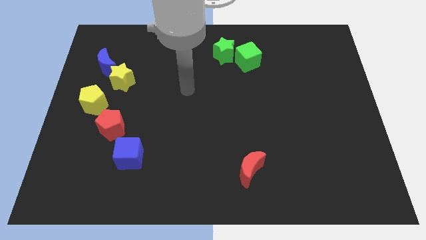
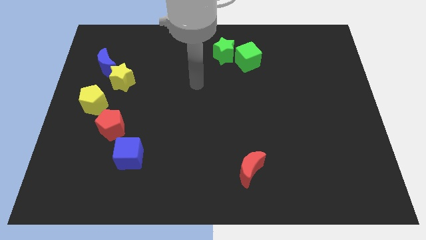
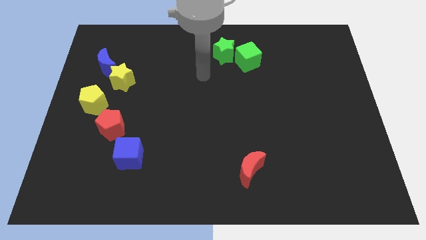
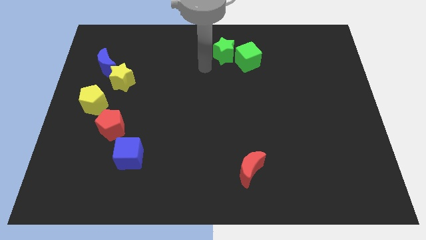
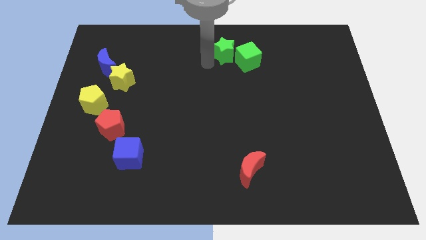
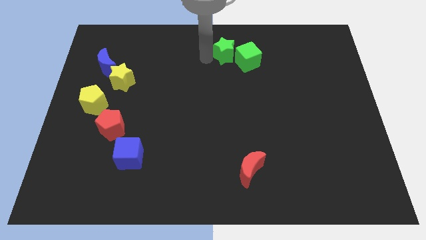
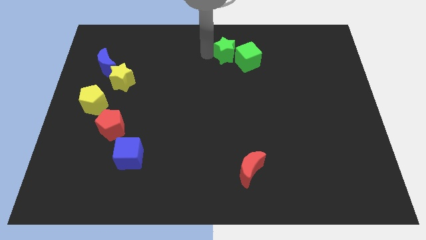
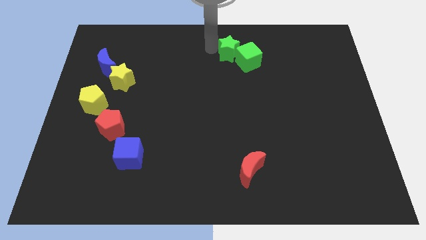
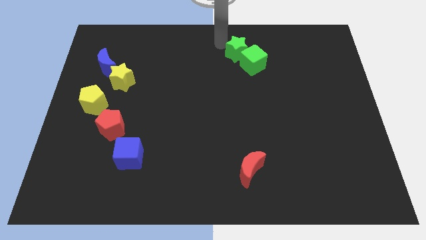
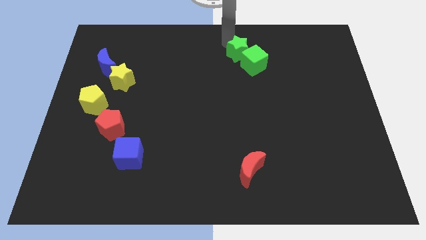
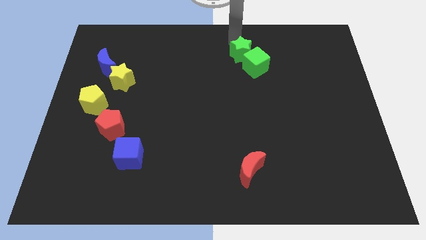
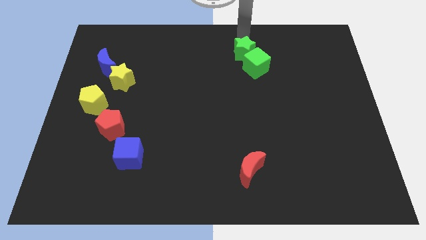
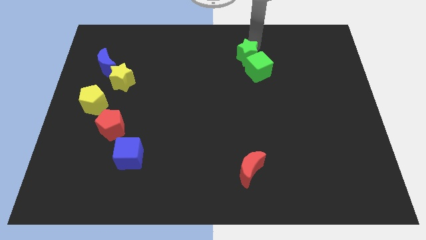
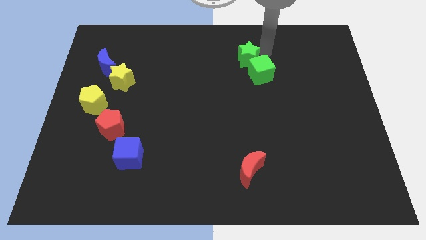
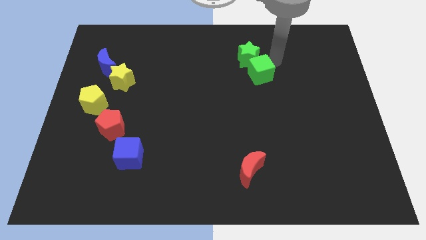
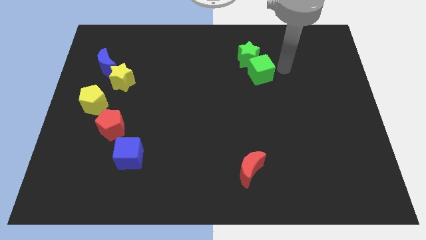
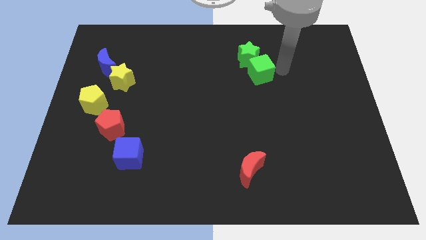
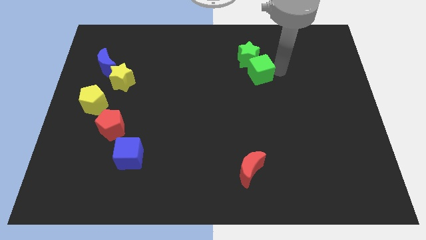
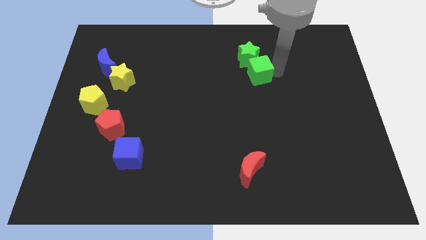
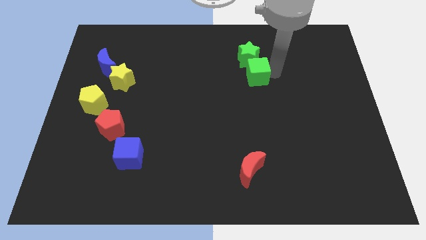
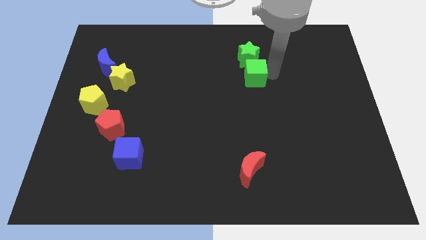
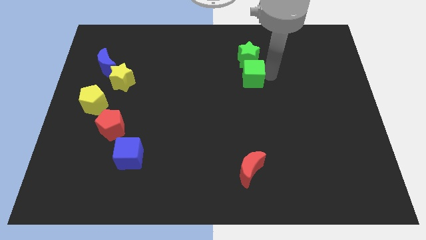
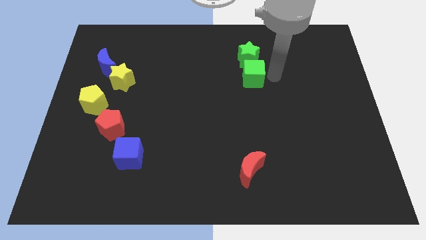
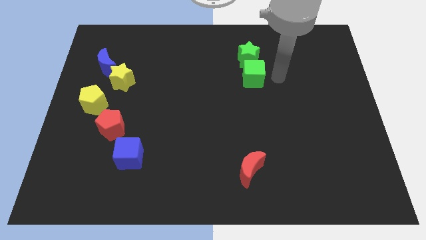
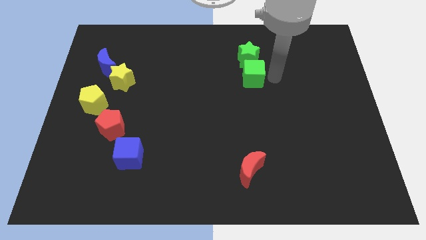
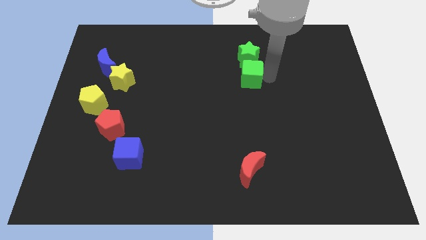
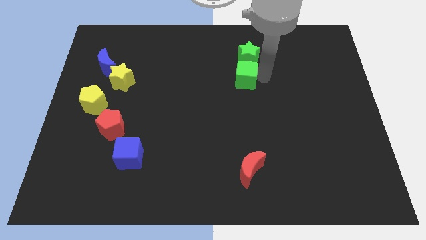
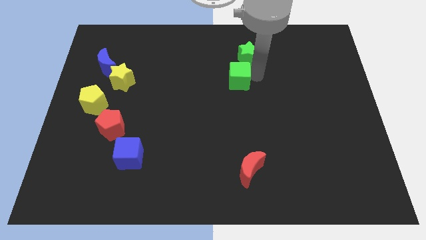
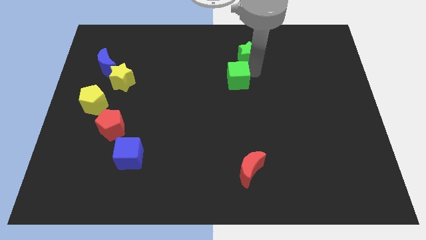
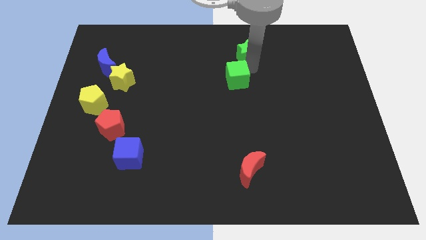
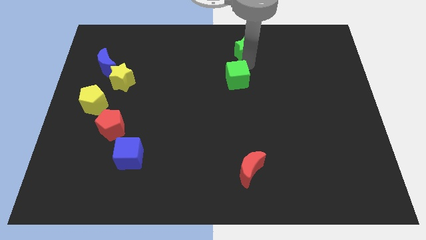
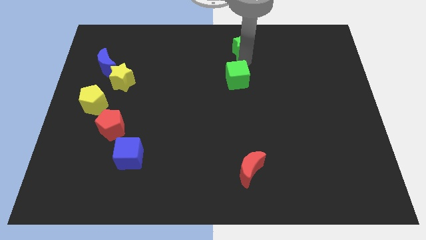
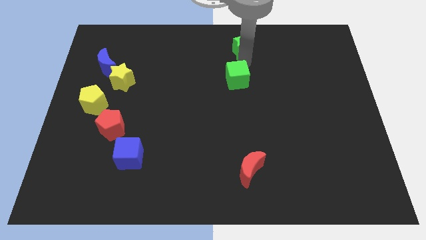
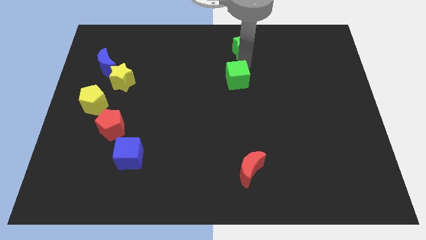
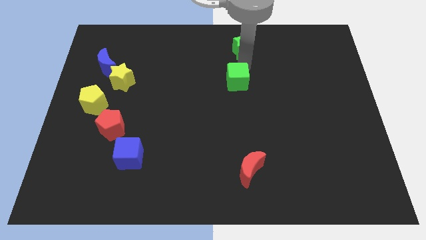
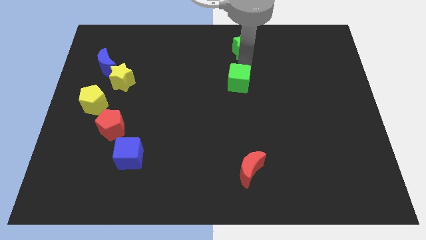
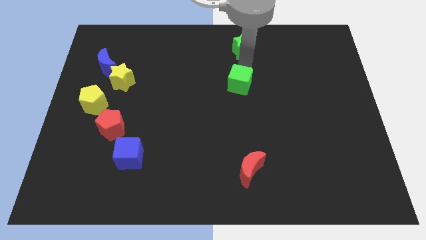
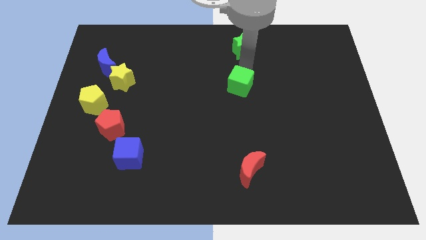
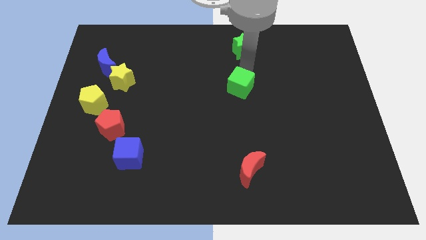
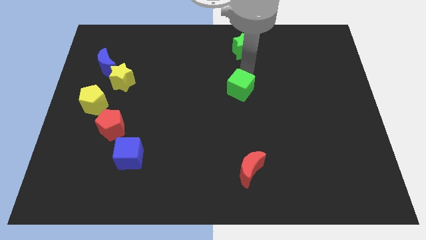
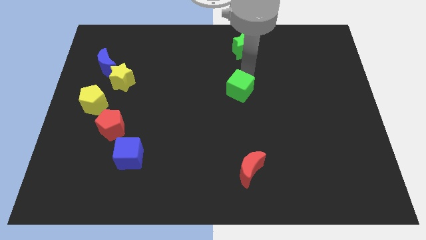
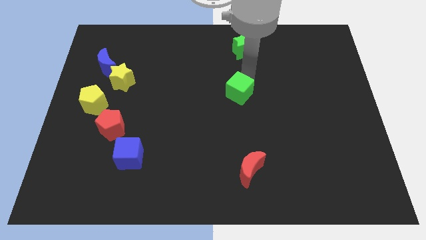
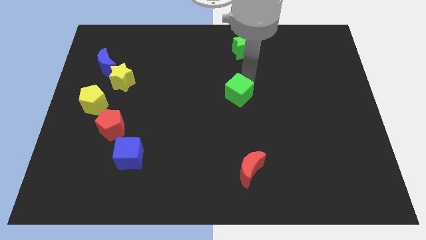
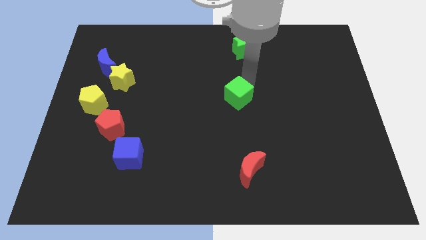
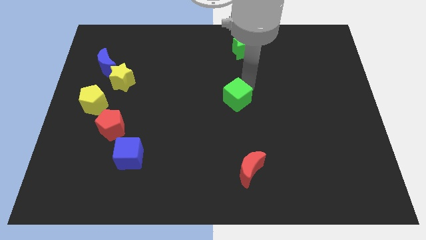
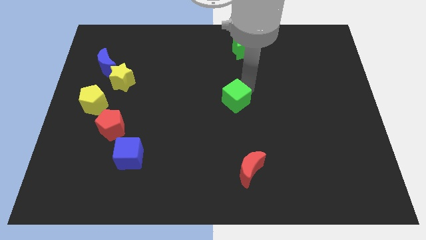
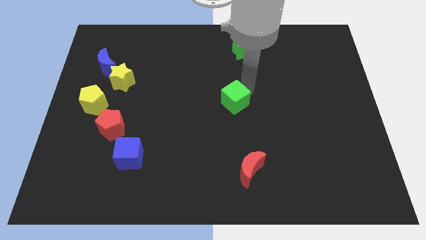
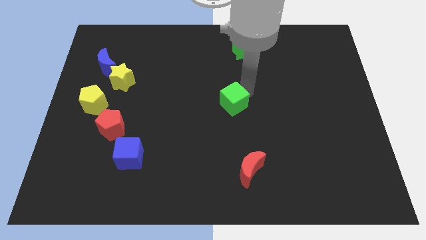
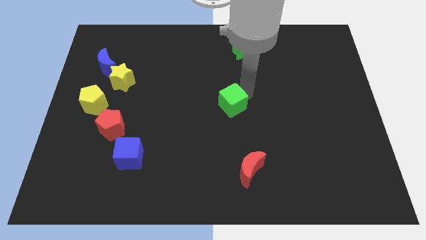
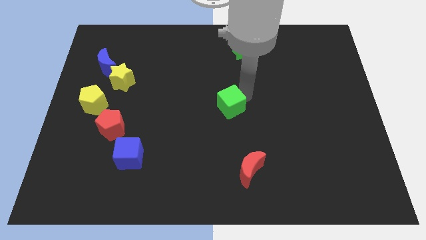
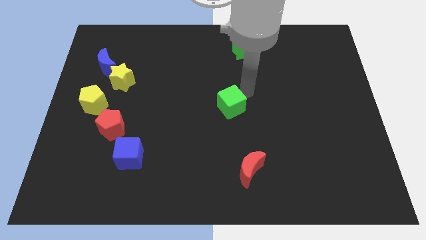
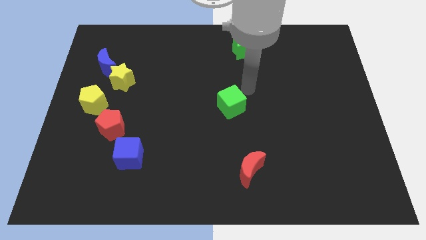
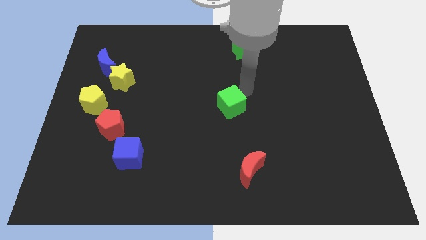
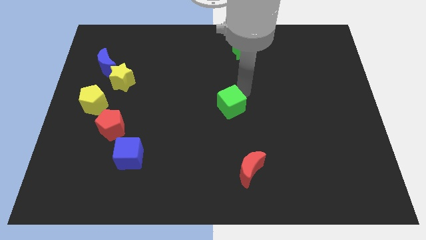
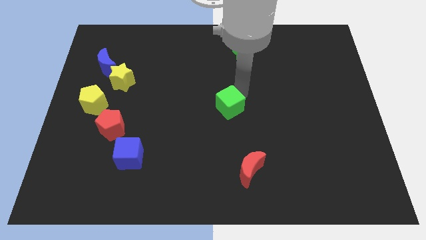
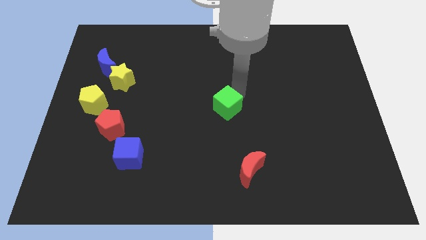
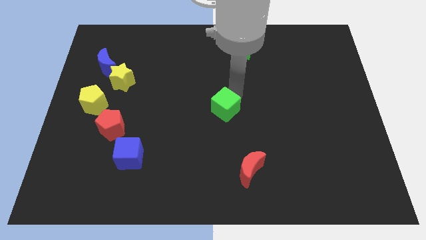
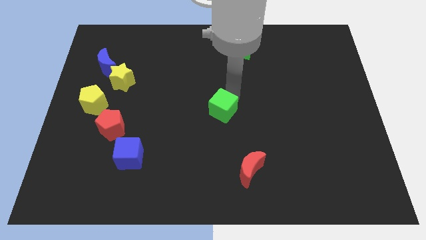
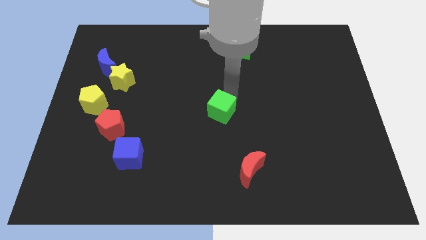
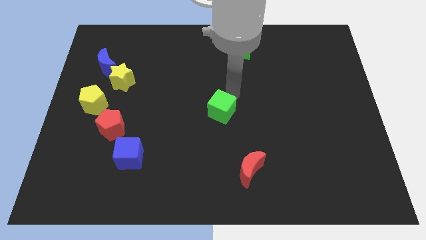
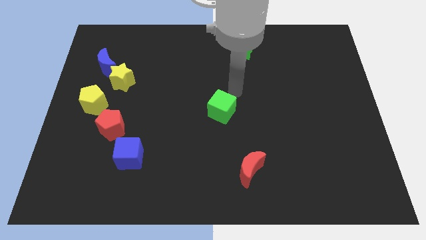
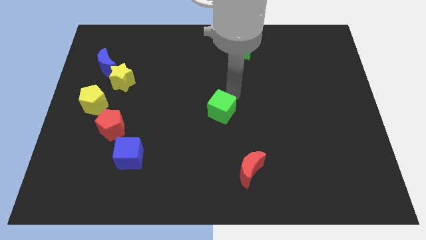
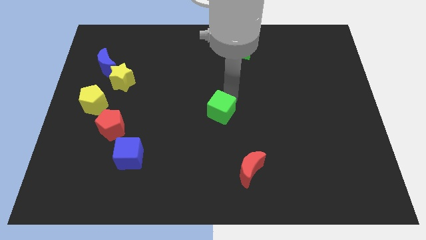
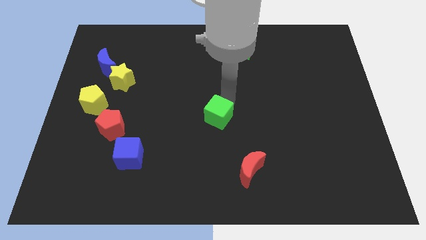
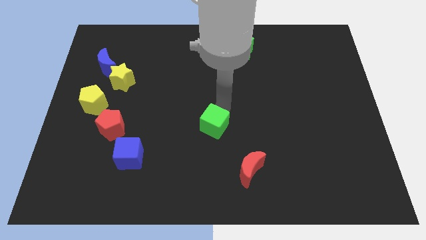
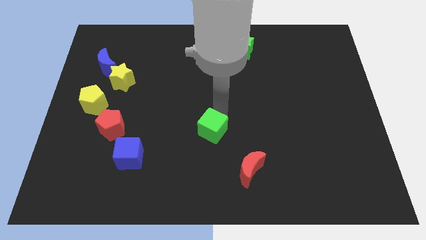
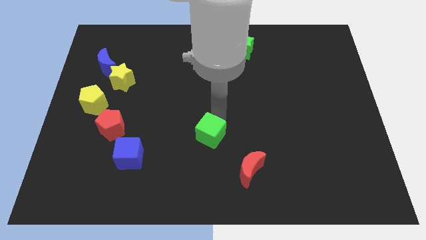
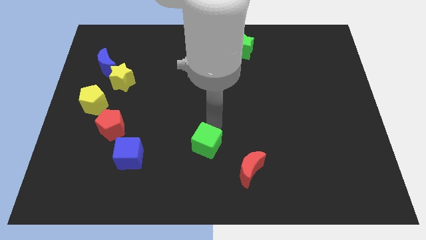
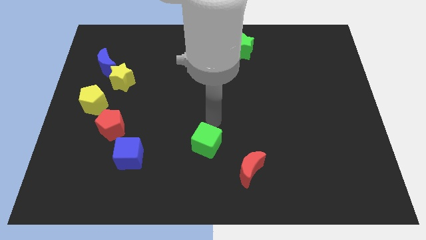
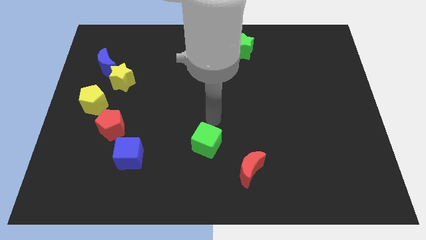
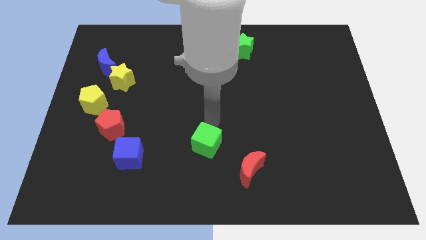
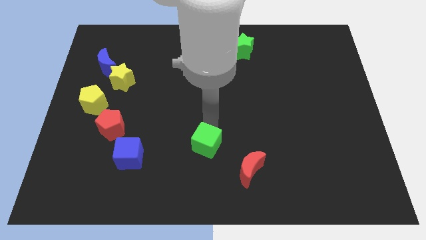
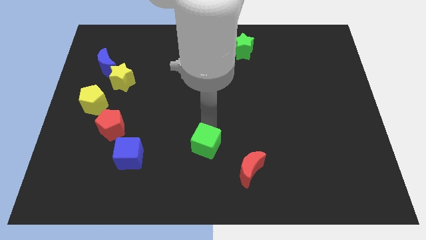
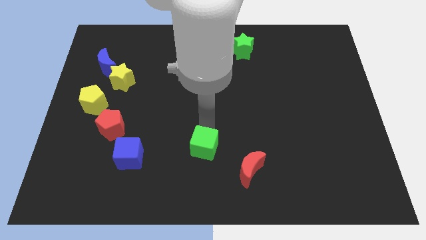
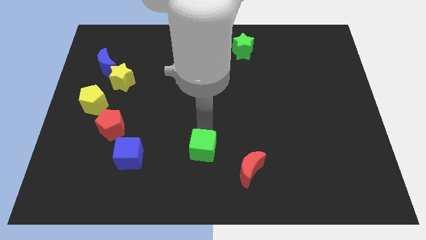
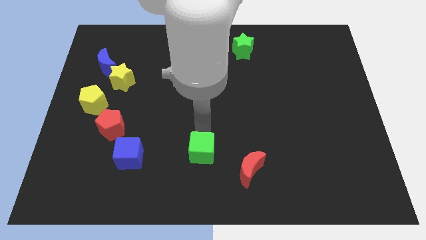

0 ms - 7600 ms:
push the green cube left of the red moon
